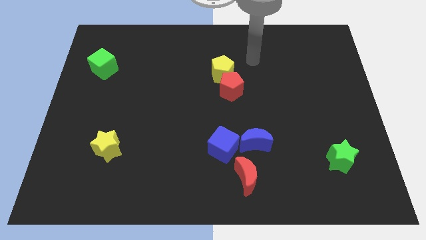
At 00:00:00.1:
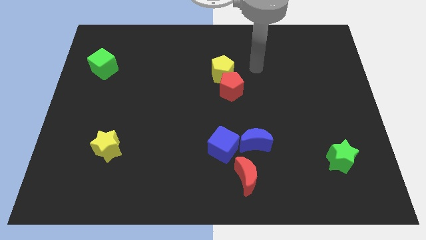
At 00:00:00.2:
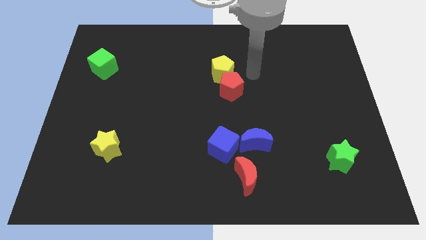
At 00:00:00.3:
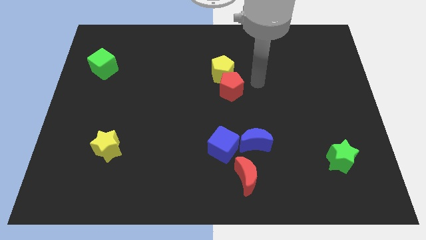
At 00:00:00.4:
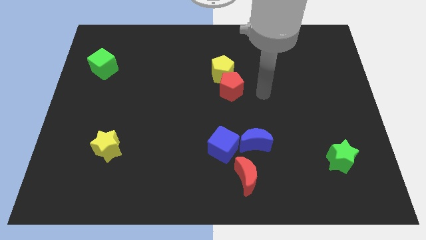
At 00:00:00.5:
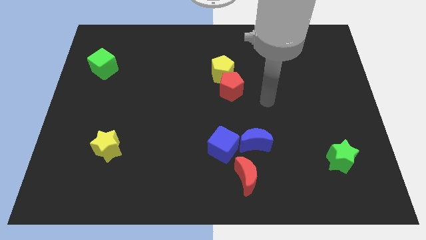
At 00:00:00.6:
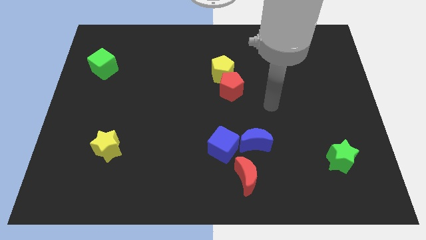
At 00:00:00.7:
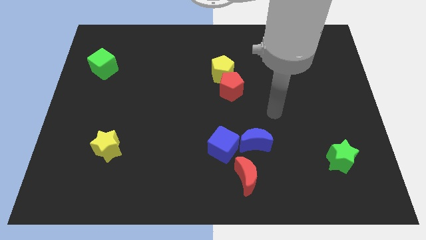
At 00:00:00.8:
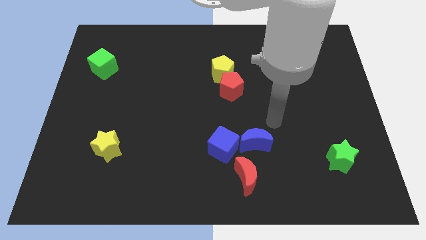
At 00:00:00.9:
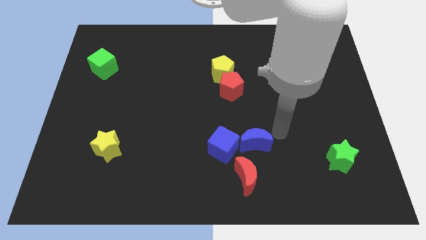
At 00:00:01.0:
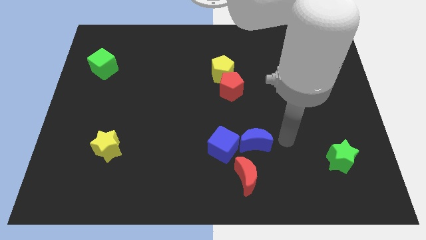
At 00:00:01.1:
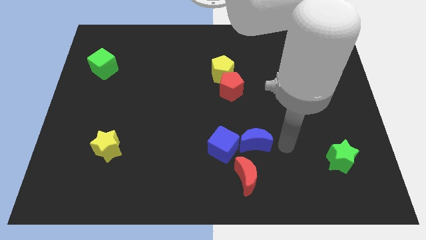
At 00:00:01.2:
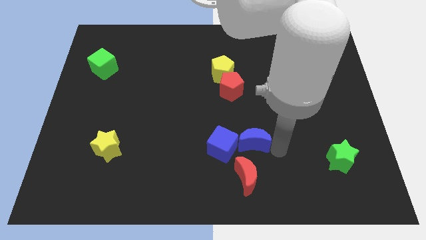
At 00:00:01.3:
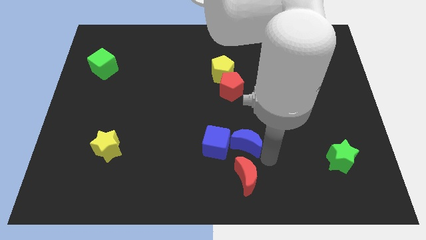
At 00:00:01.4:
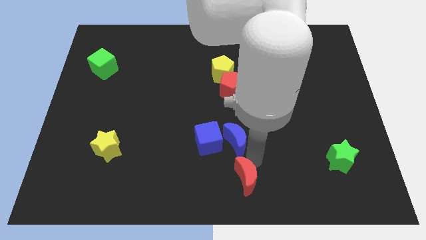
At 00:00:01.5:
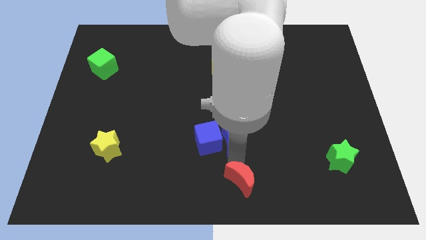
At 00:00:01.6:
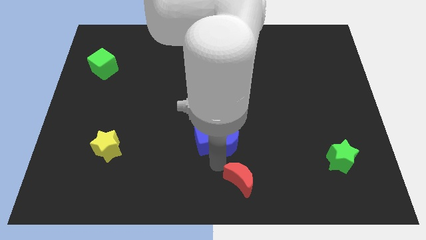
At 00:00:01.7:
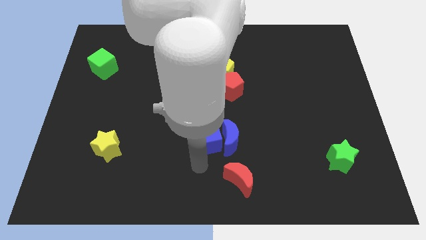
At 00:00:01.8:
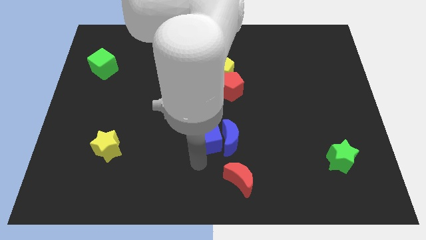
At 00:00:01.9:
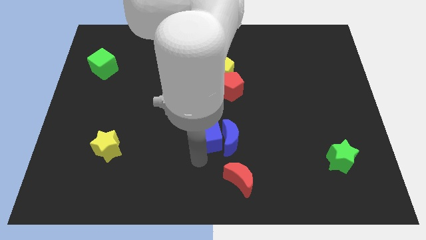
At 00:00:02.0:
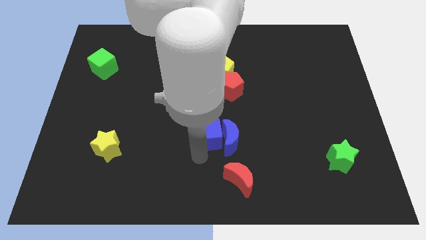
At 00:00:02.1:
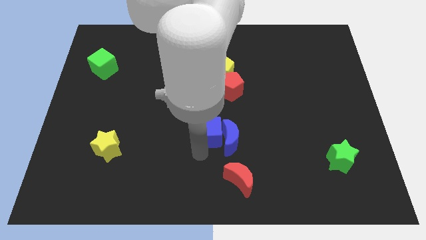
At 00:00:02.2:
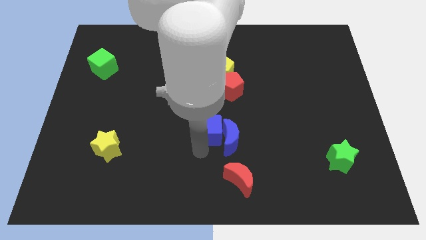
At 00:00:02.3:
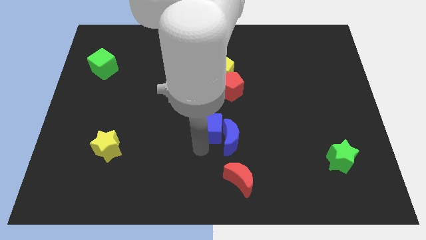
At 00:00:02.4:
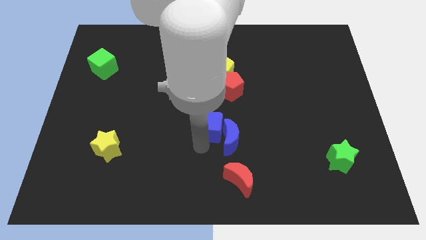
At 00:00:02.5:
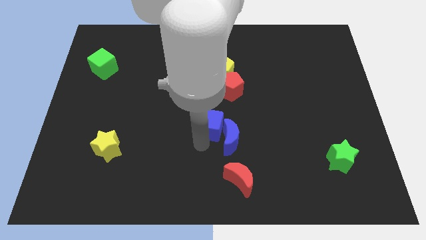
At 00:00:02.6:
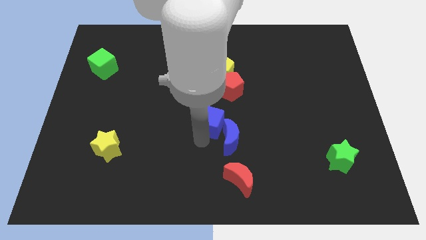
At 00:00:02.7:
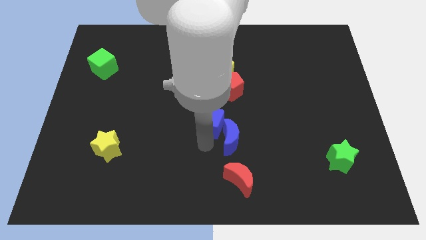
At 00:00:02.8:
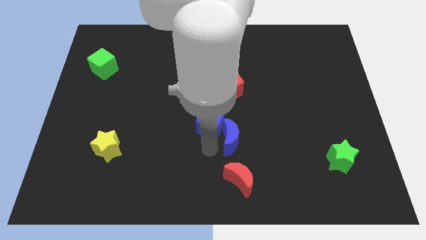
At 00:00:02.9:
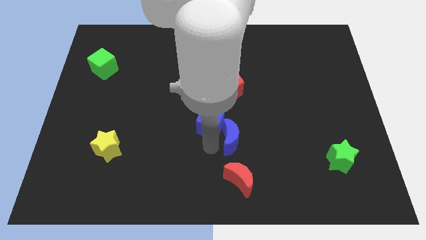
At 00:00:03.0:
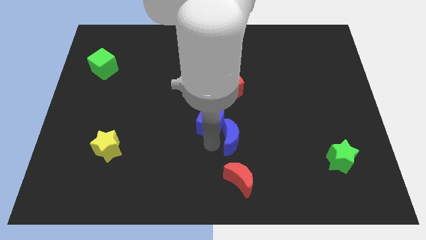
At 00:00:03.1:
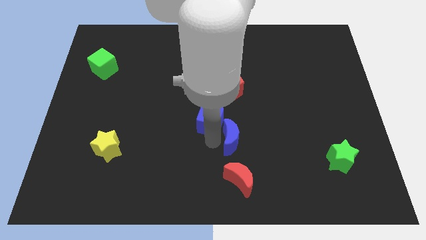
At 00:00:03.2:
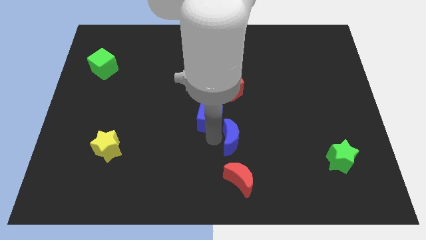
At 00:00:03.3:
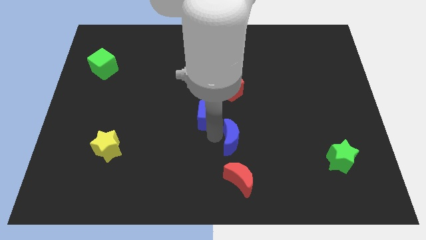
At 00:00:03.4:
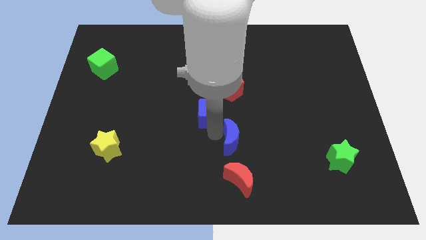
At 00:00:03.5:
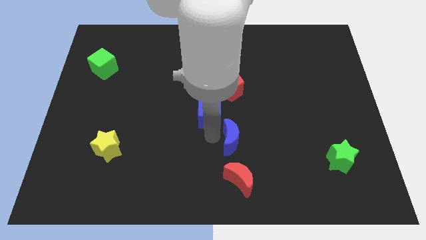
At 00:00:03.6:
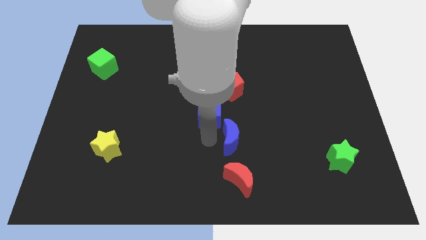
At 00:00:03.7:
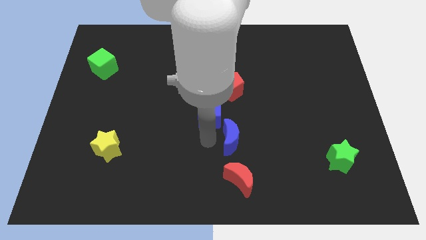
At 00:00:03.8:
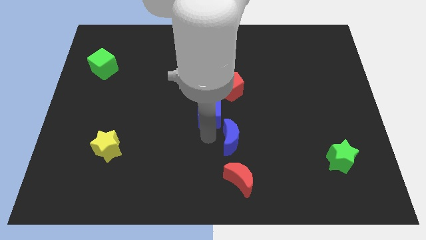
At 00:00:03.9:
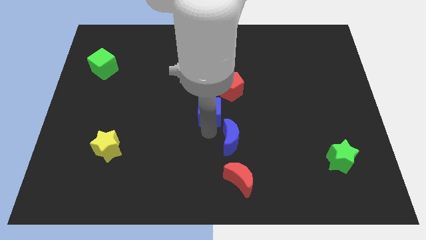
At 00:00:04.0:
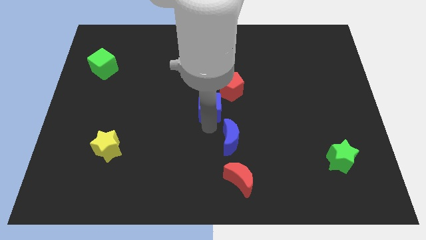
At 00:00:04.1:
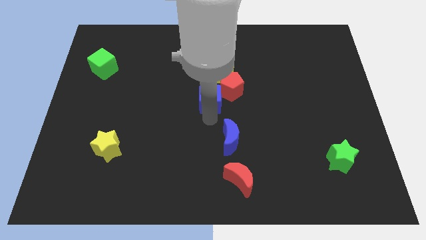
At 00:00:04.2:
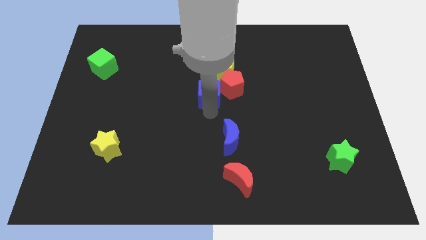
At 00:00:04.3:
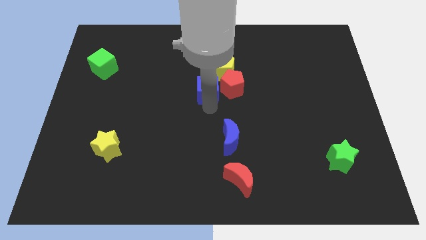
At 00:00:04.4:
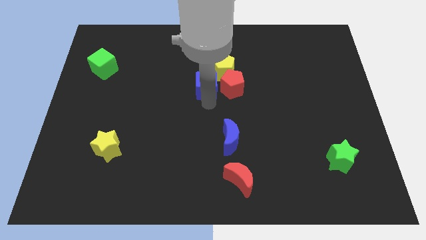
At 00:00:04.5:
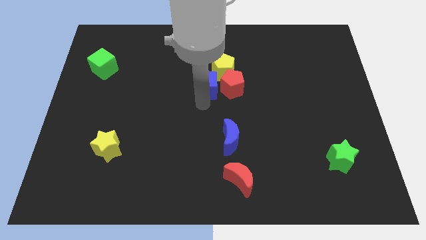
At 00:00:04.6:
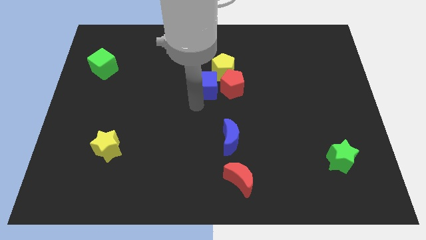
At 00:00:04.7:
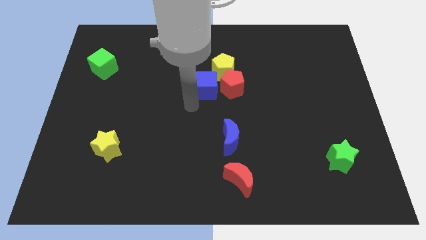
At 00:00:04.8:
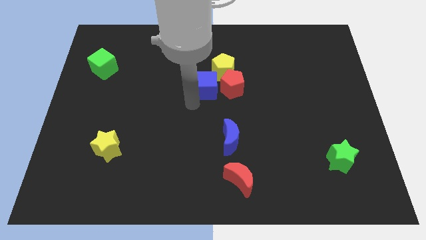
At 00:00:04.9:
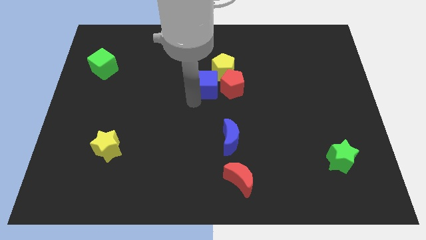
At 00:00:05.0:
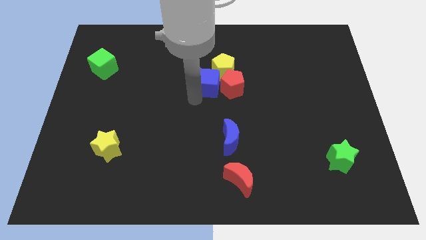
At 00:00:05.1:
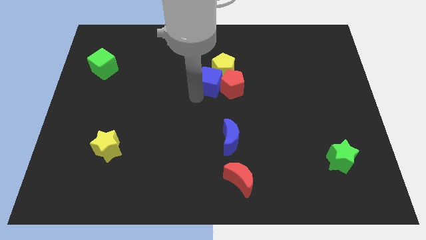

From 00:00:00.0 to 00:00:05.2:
move the blue cube to the yellow pentagon

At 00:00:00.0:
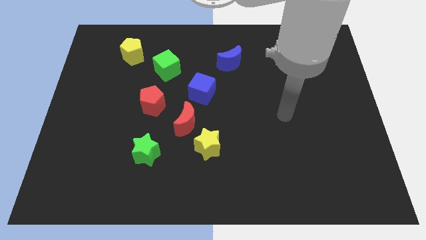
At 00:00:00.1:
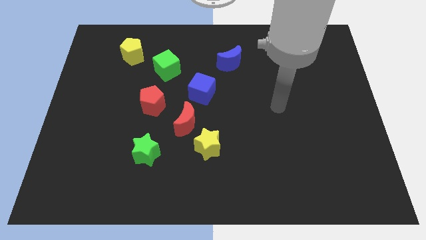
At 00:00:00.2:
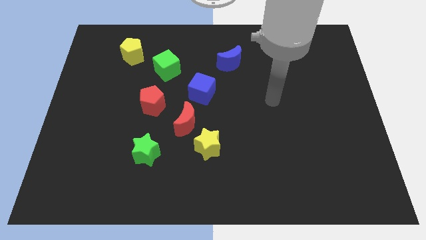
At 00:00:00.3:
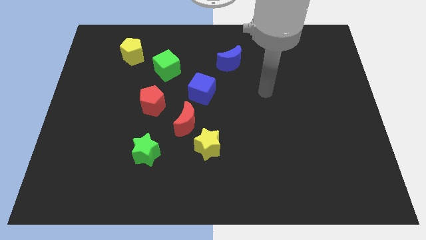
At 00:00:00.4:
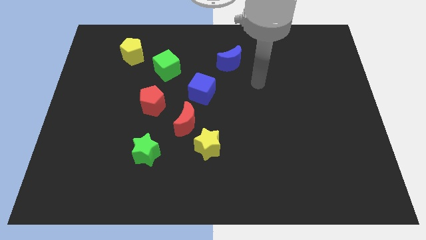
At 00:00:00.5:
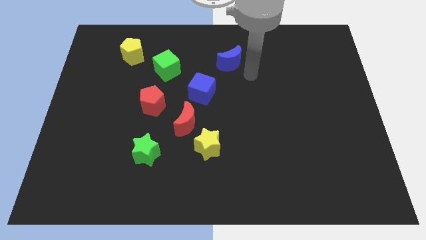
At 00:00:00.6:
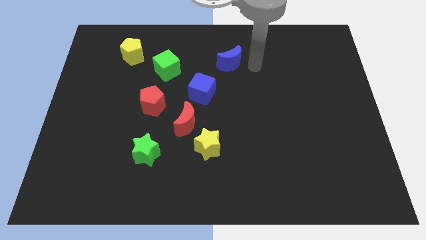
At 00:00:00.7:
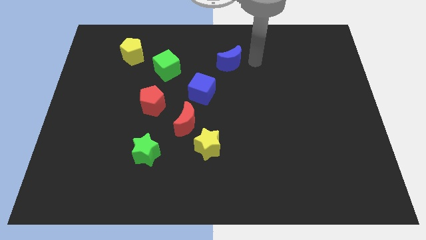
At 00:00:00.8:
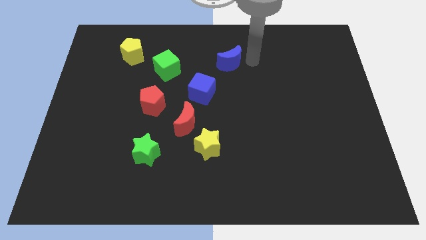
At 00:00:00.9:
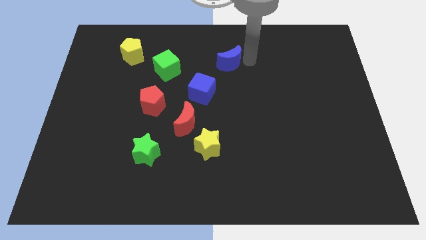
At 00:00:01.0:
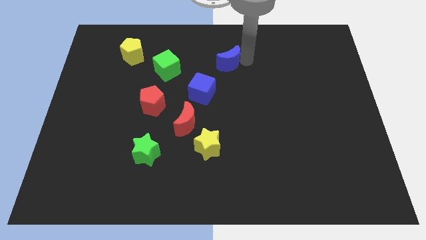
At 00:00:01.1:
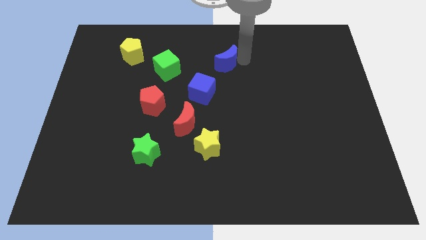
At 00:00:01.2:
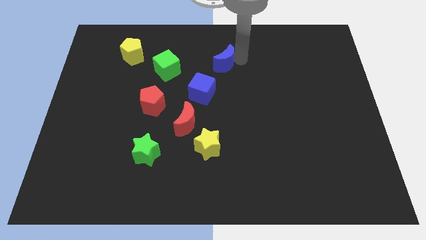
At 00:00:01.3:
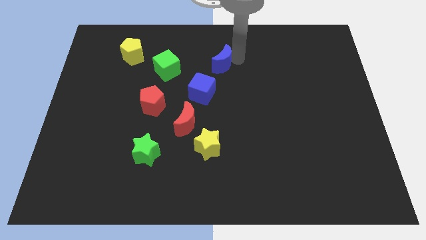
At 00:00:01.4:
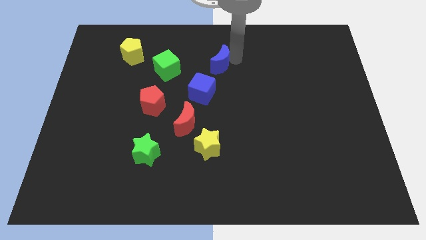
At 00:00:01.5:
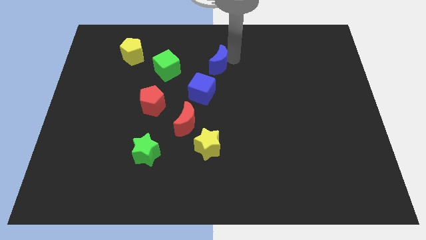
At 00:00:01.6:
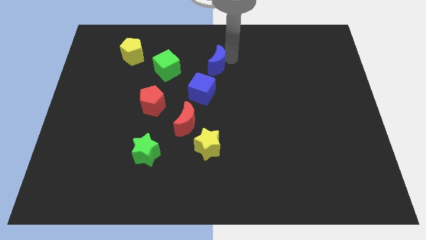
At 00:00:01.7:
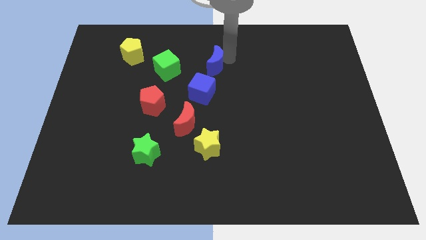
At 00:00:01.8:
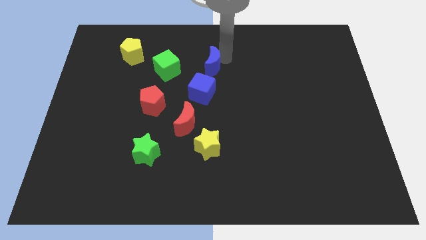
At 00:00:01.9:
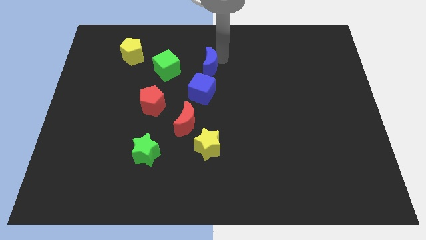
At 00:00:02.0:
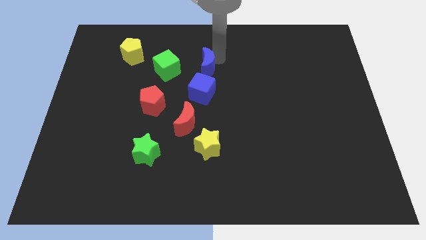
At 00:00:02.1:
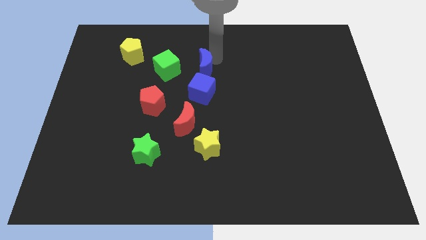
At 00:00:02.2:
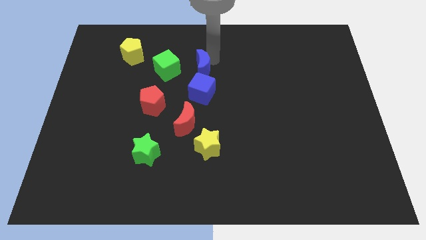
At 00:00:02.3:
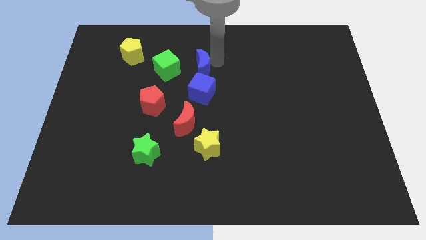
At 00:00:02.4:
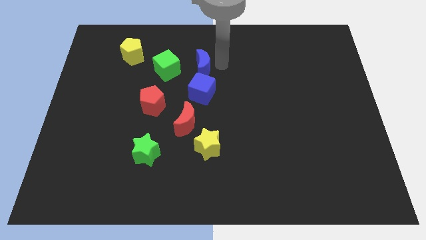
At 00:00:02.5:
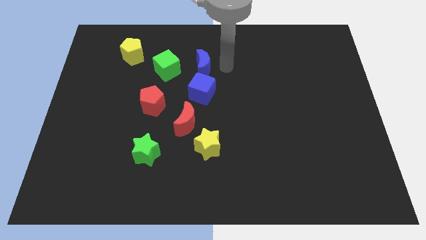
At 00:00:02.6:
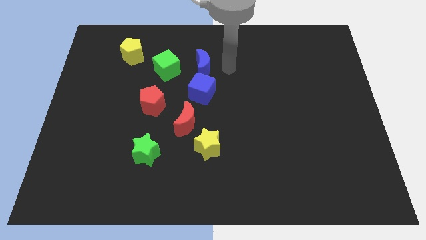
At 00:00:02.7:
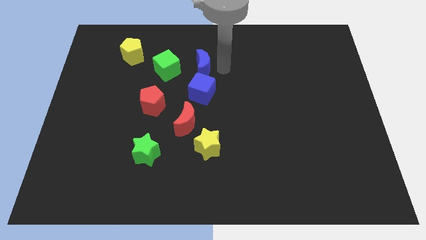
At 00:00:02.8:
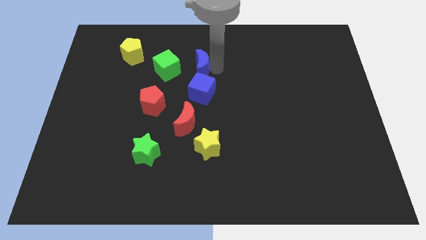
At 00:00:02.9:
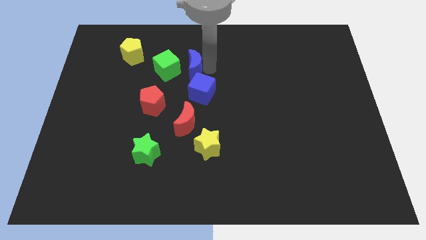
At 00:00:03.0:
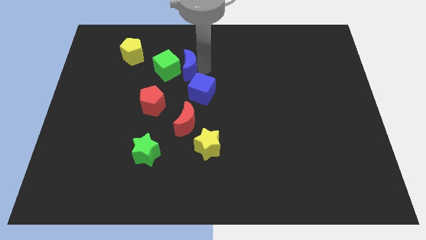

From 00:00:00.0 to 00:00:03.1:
put the blue moon to the green cube
